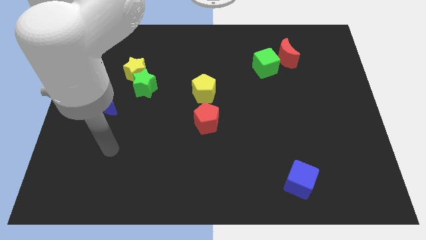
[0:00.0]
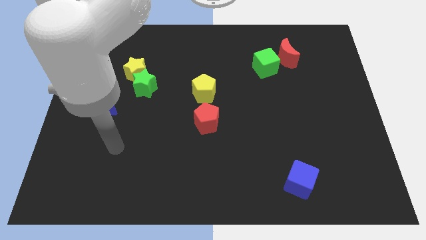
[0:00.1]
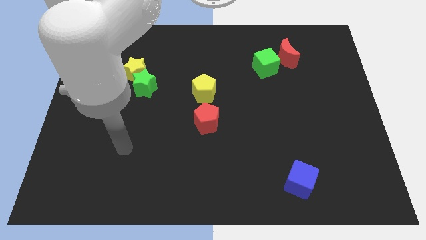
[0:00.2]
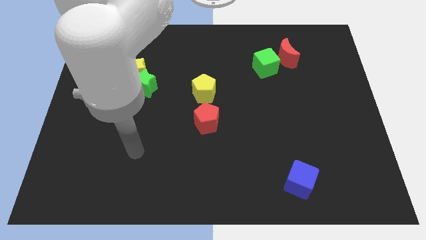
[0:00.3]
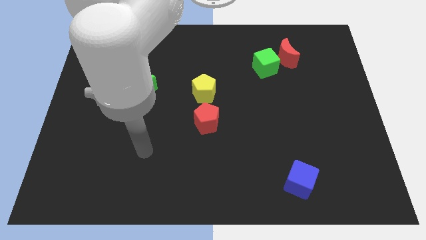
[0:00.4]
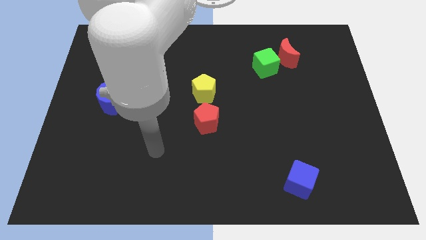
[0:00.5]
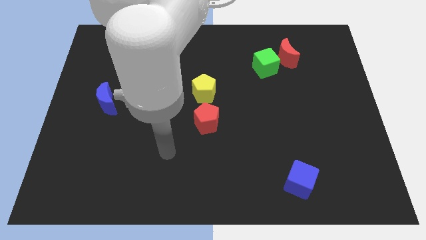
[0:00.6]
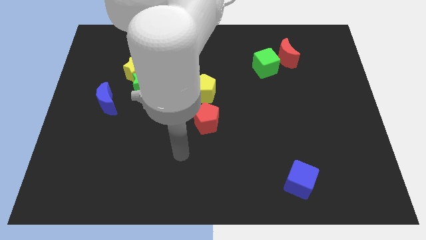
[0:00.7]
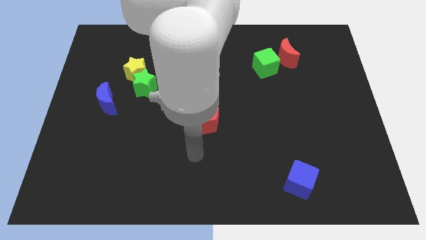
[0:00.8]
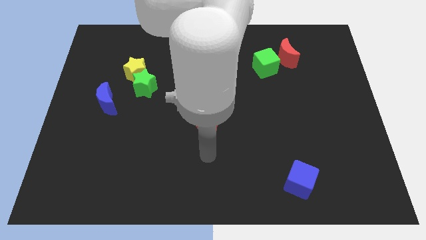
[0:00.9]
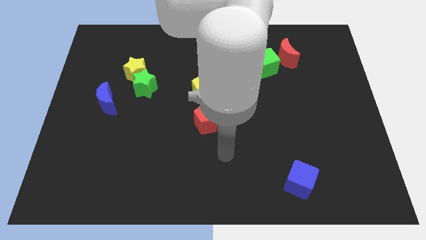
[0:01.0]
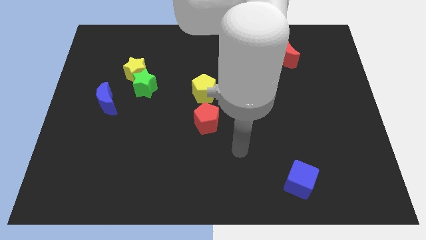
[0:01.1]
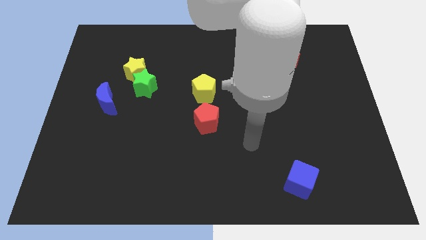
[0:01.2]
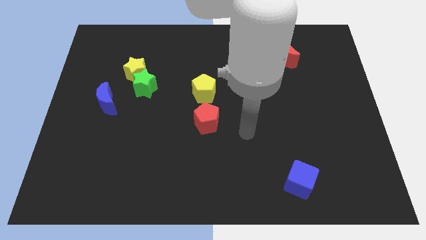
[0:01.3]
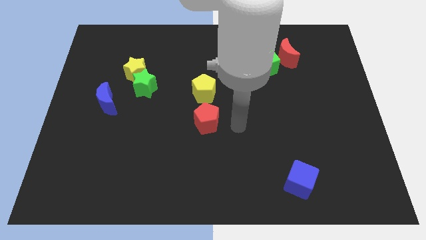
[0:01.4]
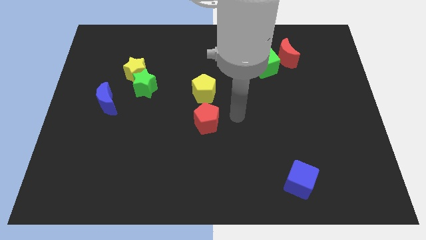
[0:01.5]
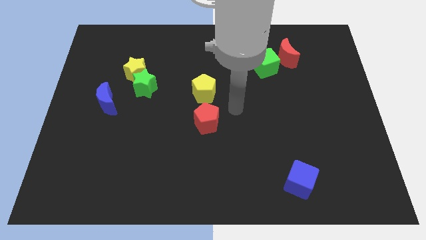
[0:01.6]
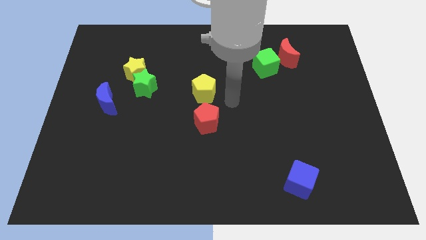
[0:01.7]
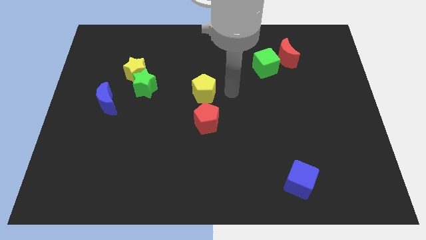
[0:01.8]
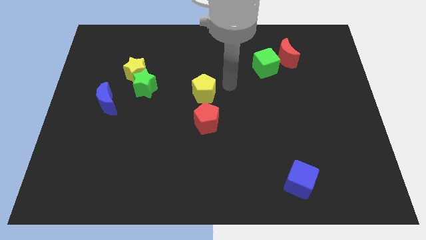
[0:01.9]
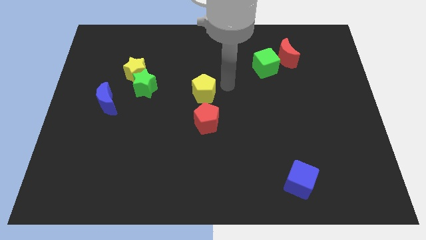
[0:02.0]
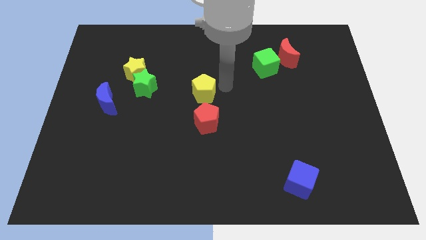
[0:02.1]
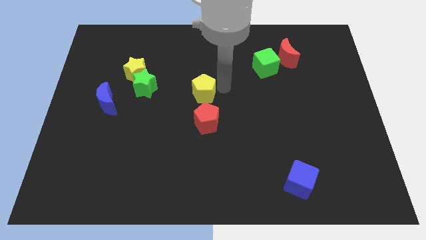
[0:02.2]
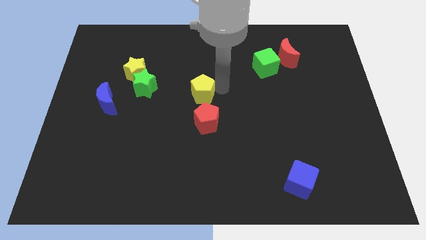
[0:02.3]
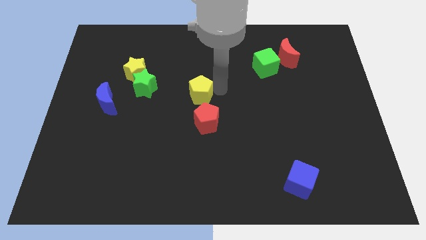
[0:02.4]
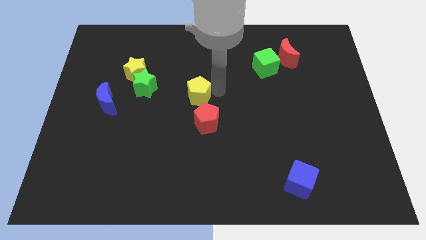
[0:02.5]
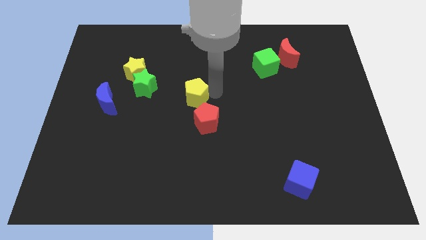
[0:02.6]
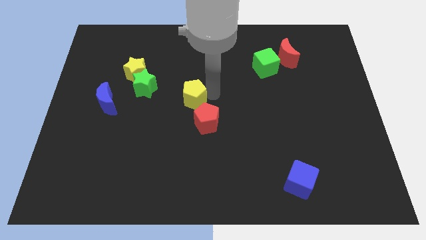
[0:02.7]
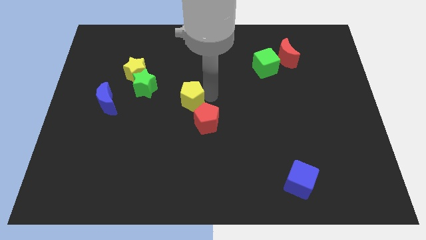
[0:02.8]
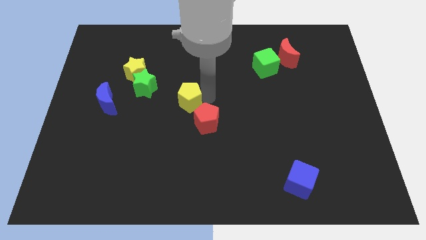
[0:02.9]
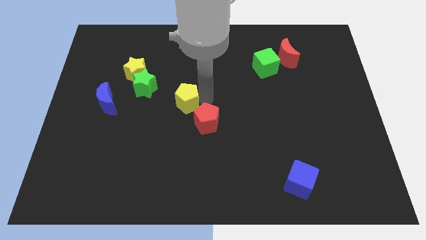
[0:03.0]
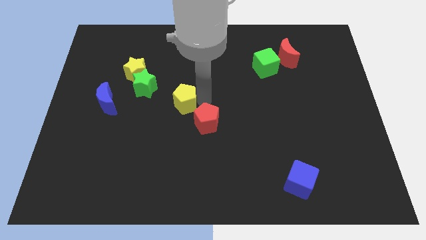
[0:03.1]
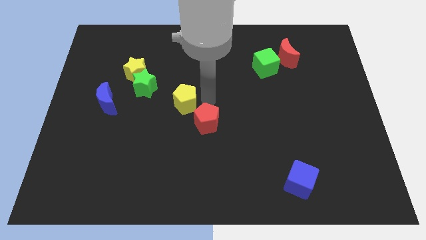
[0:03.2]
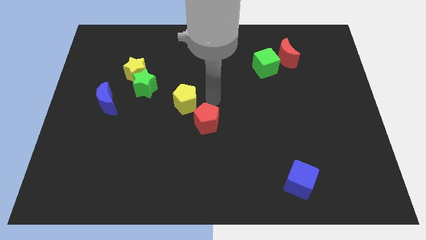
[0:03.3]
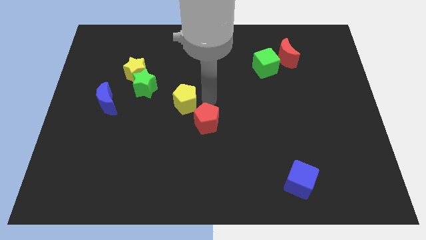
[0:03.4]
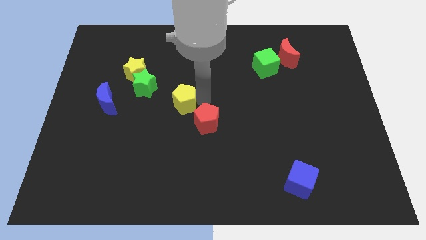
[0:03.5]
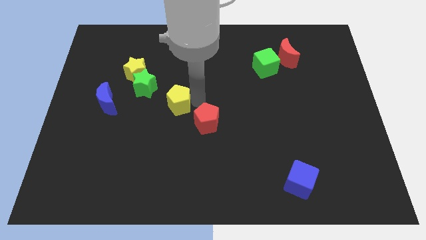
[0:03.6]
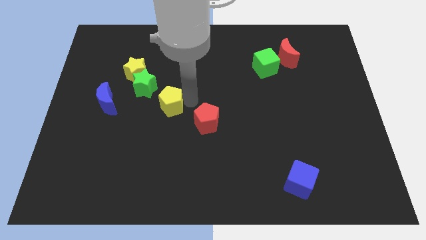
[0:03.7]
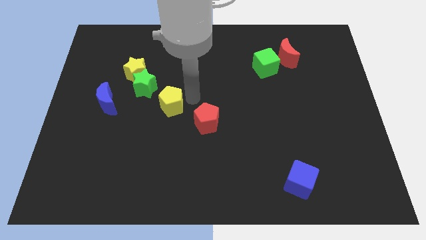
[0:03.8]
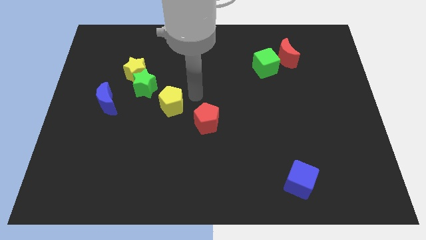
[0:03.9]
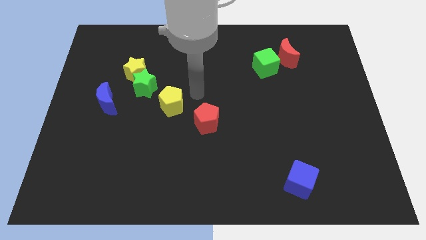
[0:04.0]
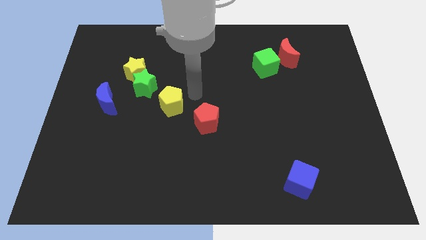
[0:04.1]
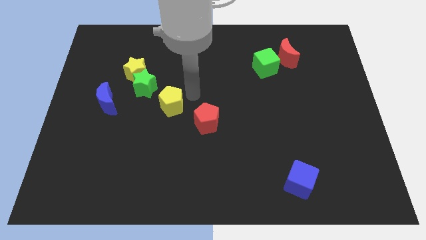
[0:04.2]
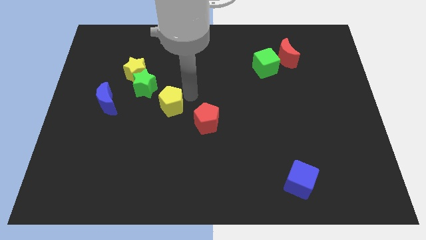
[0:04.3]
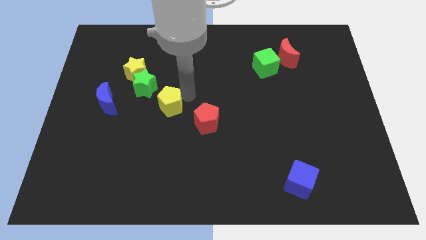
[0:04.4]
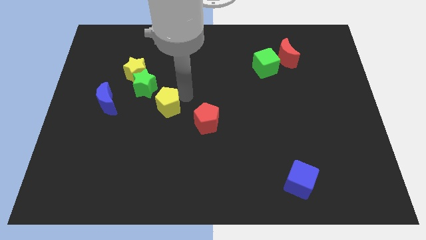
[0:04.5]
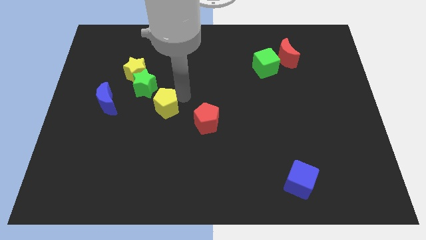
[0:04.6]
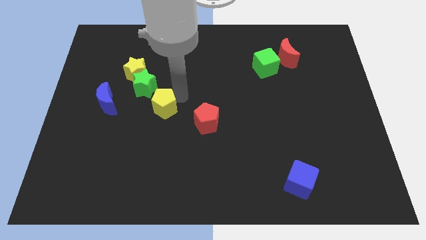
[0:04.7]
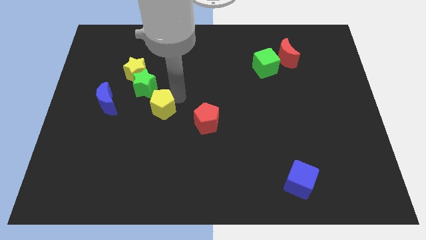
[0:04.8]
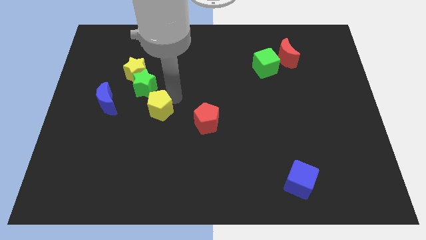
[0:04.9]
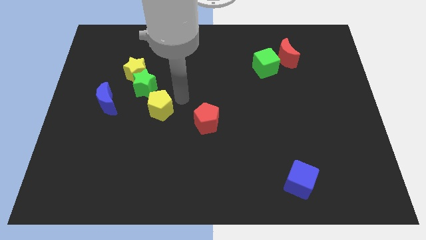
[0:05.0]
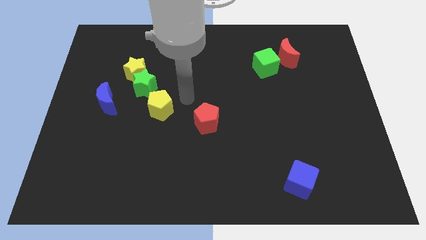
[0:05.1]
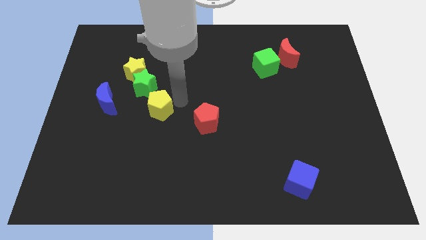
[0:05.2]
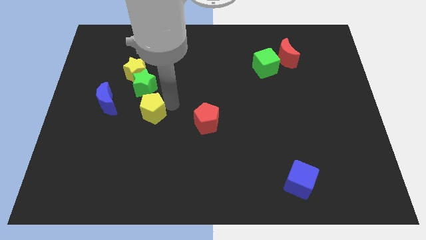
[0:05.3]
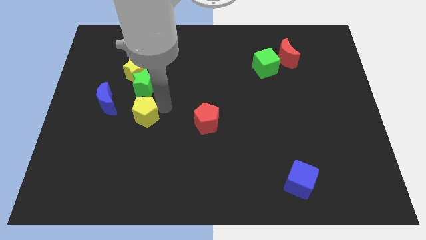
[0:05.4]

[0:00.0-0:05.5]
move the yellow pentagon to the bottom right of the blue moon

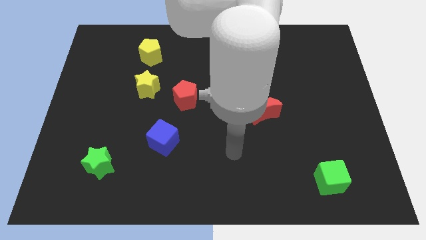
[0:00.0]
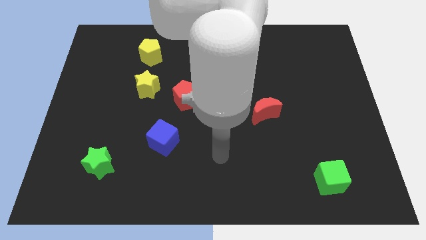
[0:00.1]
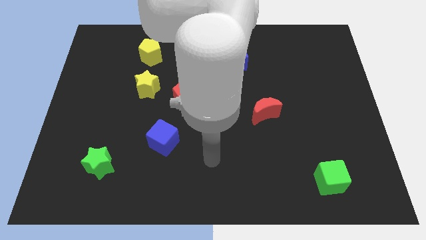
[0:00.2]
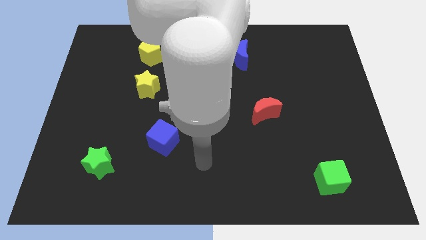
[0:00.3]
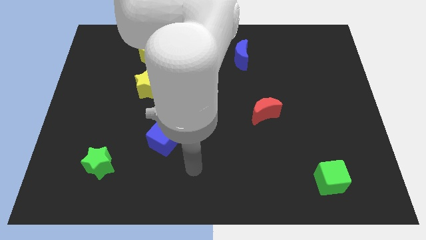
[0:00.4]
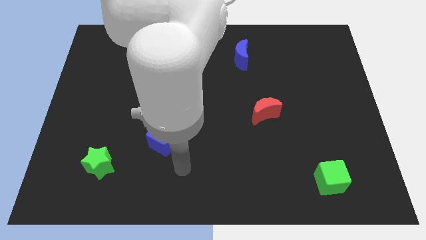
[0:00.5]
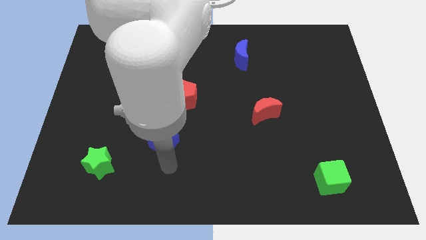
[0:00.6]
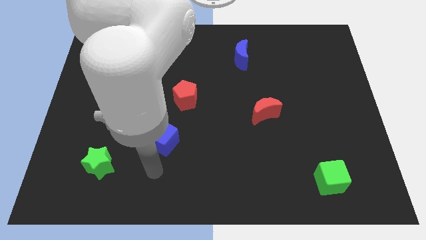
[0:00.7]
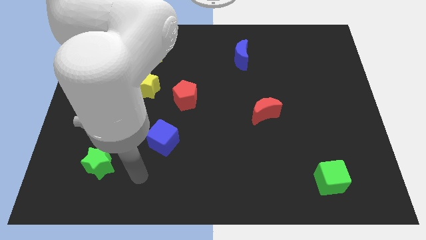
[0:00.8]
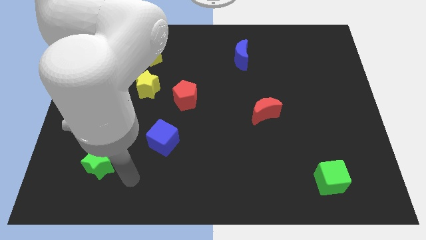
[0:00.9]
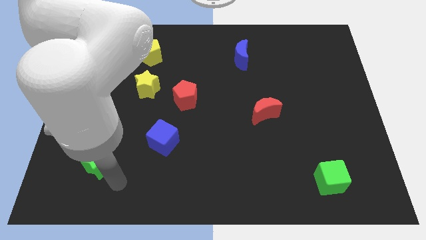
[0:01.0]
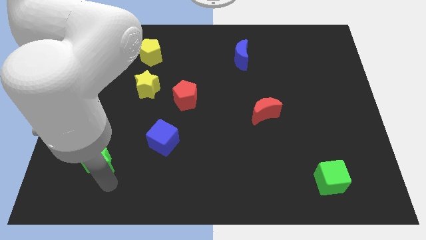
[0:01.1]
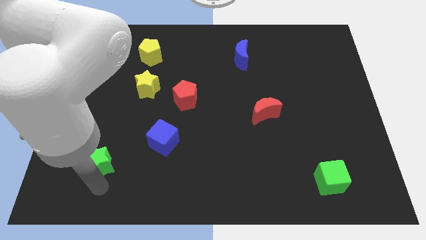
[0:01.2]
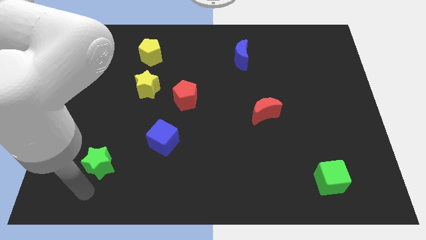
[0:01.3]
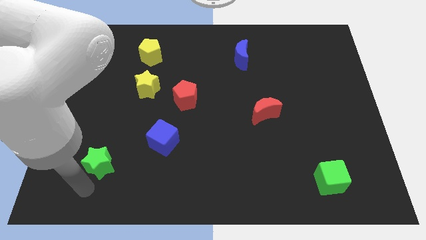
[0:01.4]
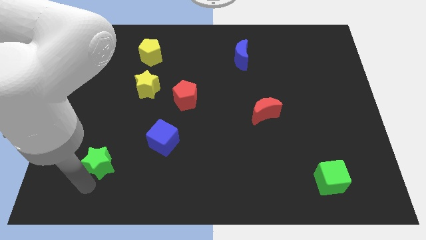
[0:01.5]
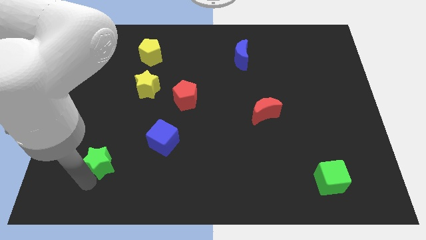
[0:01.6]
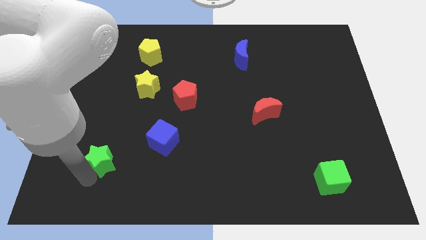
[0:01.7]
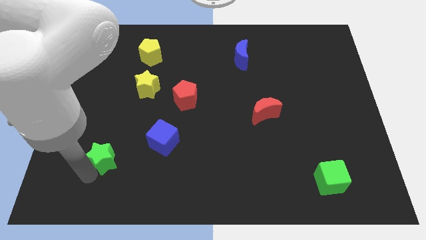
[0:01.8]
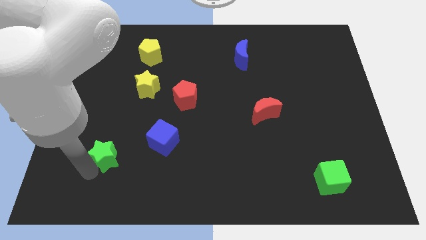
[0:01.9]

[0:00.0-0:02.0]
move the green star to the left side of the blue cube

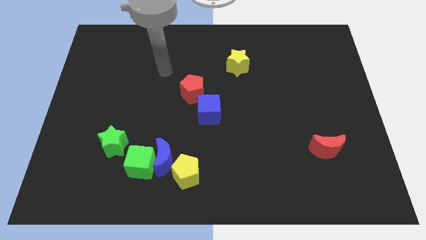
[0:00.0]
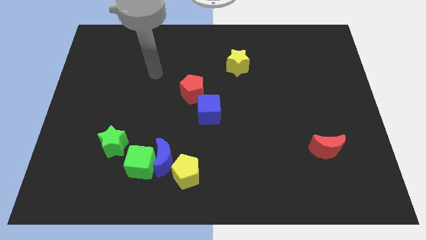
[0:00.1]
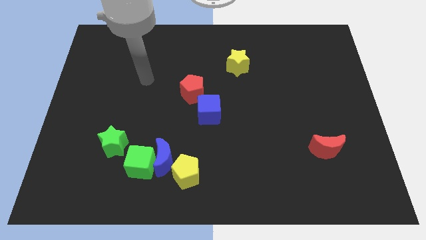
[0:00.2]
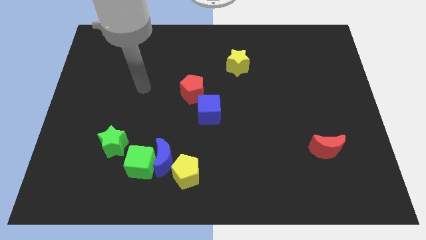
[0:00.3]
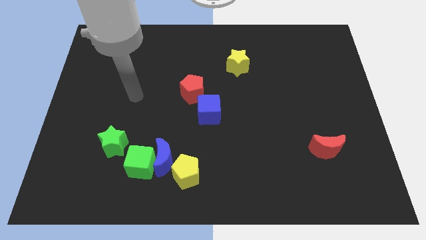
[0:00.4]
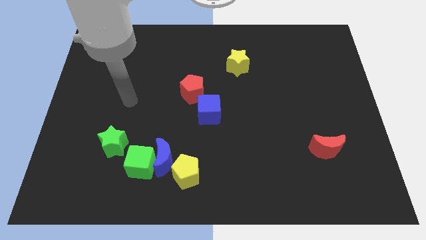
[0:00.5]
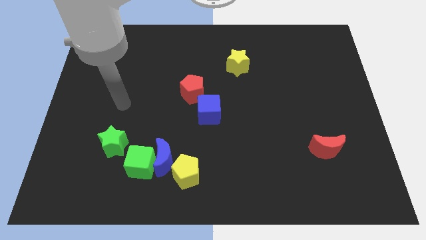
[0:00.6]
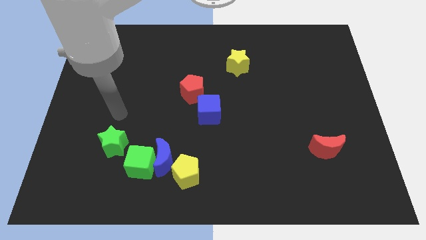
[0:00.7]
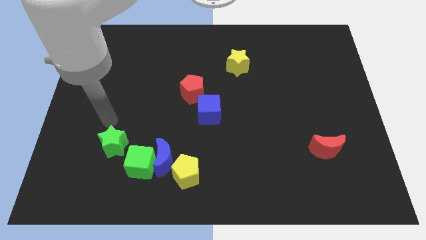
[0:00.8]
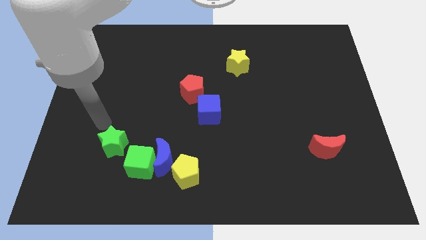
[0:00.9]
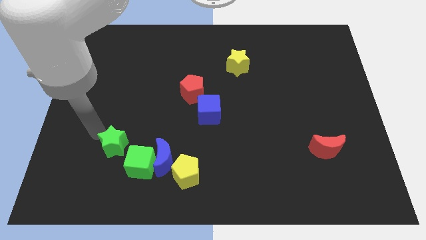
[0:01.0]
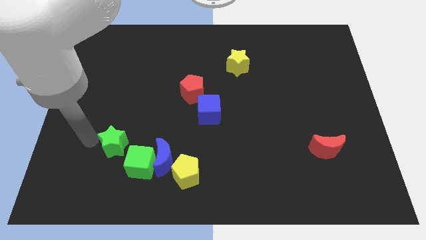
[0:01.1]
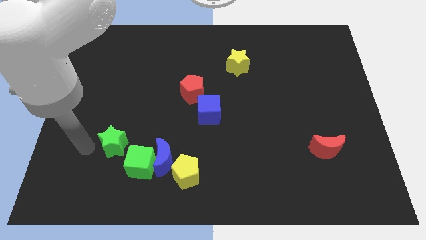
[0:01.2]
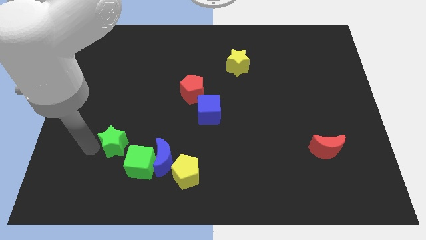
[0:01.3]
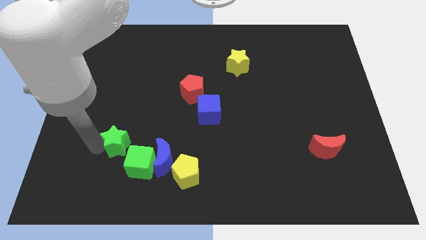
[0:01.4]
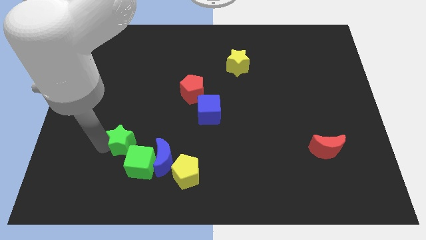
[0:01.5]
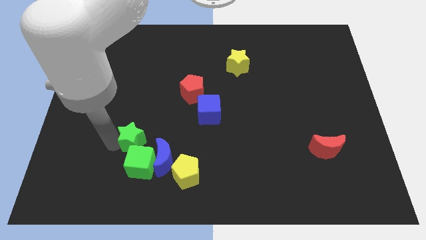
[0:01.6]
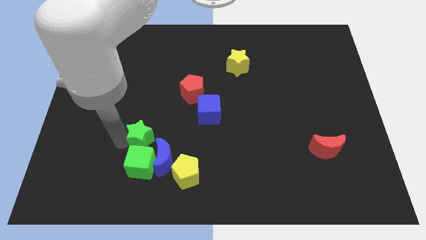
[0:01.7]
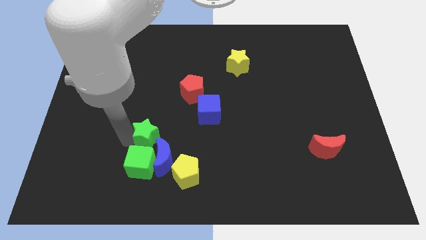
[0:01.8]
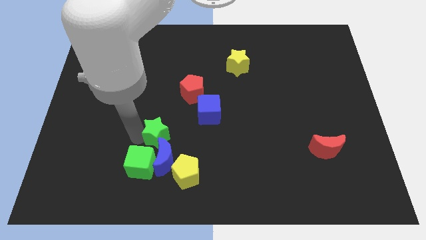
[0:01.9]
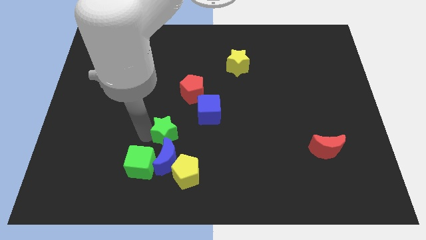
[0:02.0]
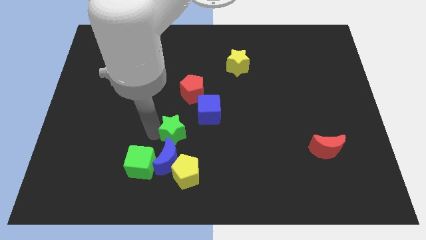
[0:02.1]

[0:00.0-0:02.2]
move the green star to the top right side of the blue moon
